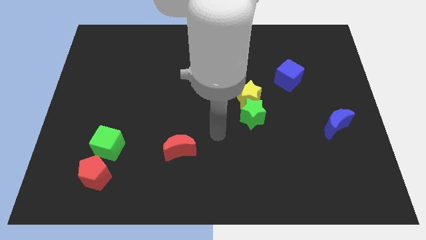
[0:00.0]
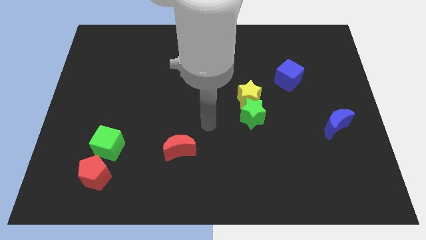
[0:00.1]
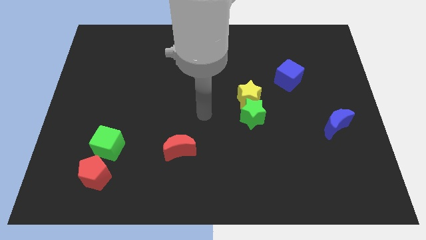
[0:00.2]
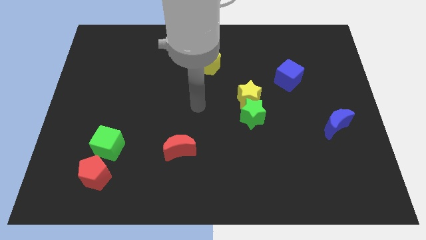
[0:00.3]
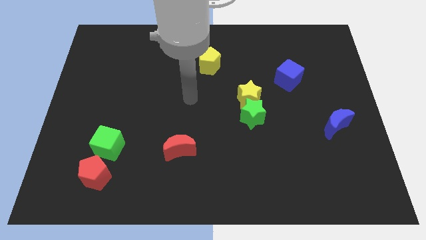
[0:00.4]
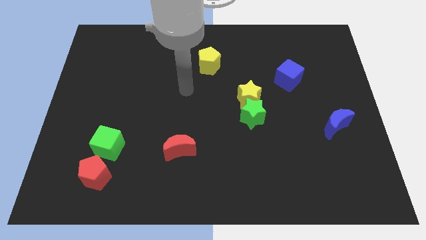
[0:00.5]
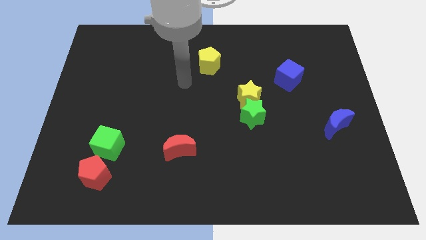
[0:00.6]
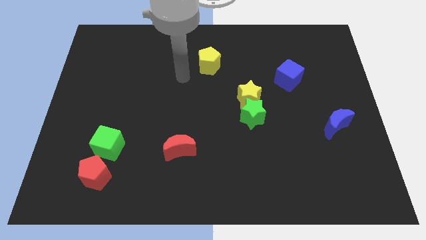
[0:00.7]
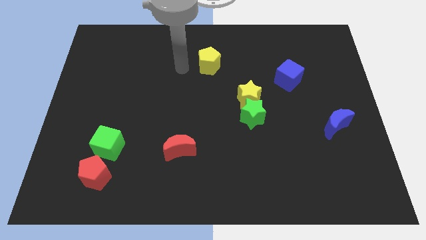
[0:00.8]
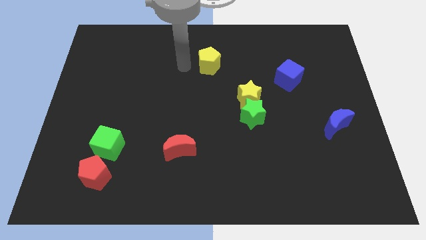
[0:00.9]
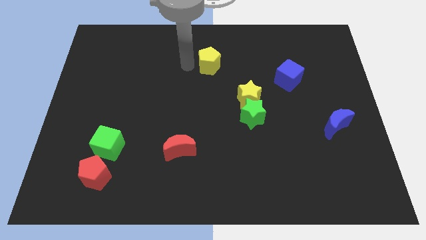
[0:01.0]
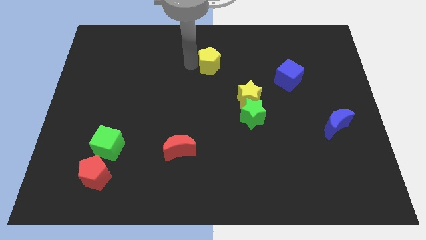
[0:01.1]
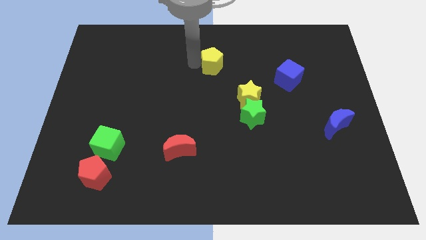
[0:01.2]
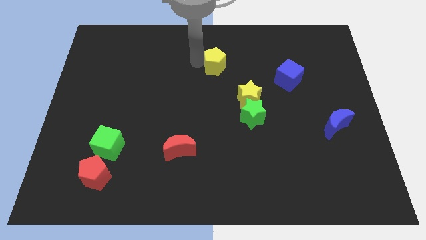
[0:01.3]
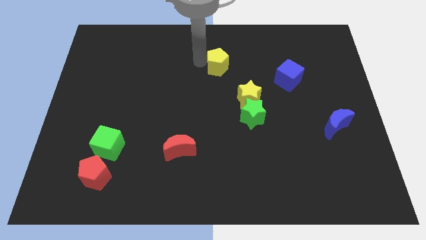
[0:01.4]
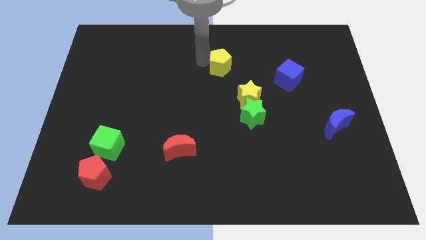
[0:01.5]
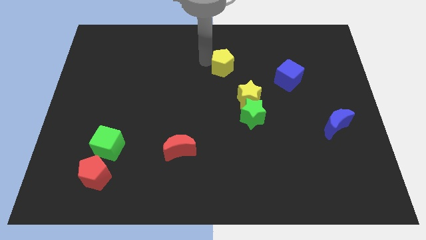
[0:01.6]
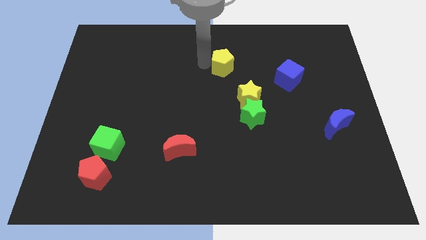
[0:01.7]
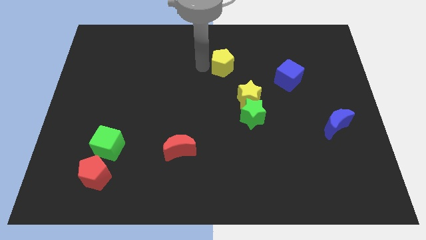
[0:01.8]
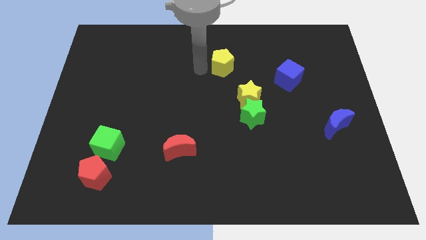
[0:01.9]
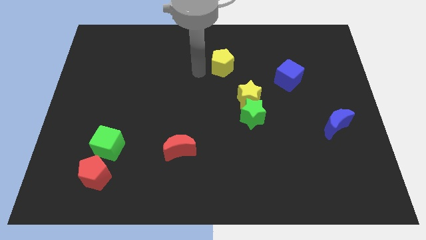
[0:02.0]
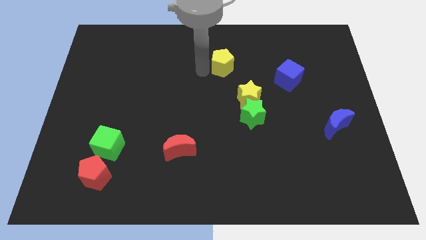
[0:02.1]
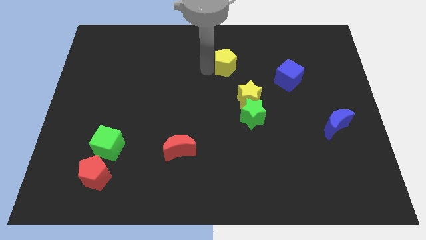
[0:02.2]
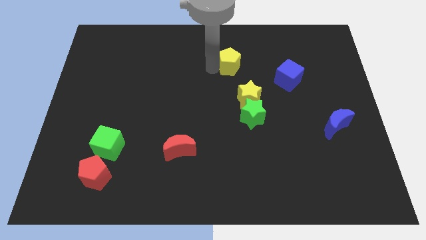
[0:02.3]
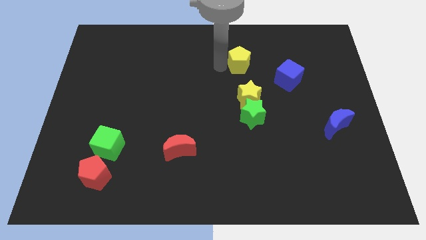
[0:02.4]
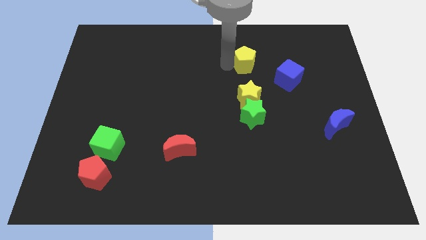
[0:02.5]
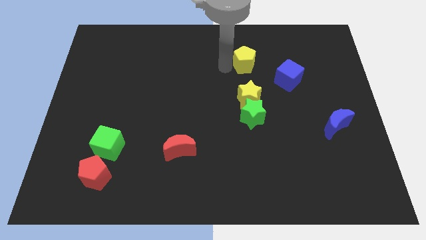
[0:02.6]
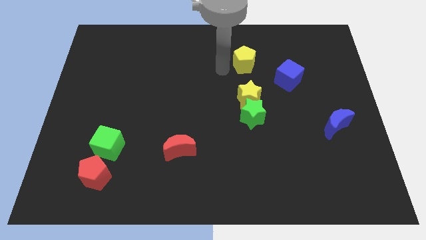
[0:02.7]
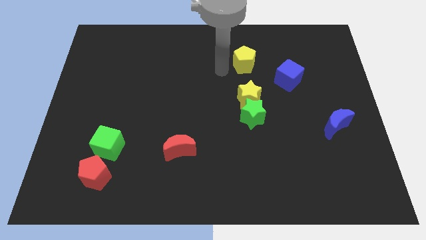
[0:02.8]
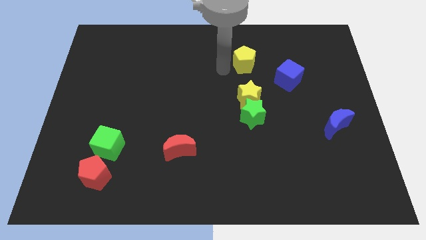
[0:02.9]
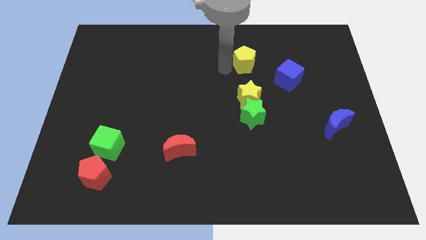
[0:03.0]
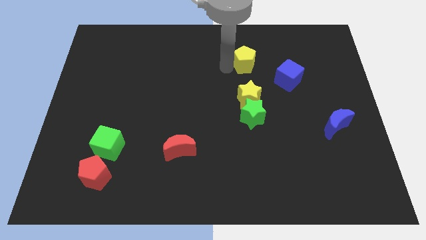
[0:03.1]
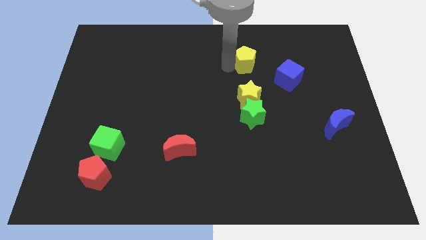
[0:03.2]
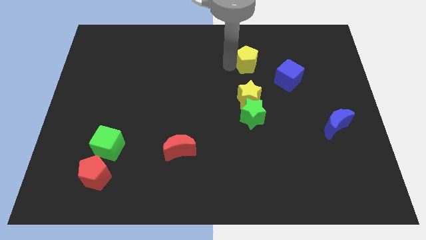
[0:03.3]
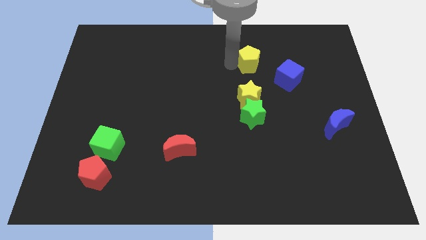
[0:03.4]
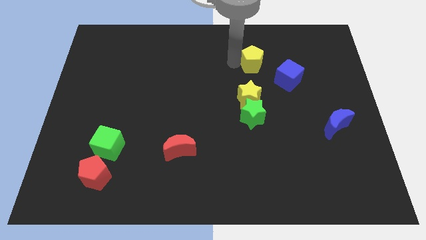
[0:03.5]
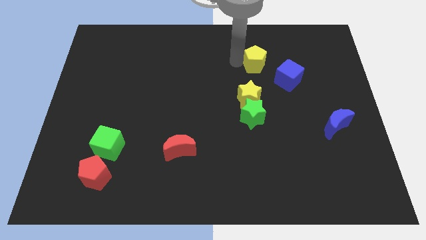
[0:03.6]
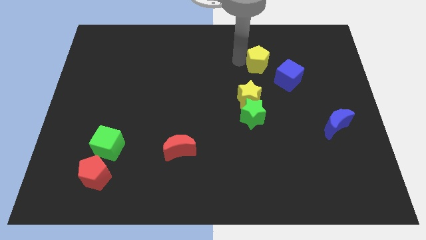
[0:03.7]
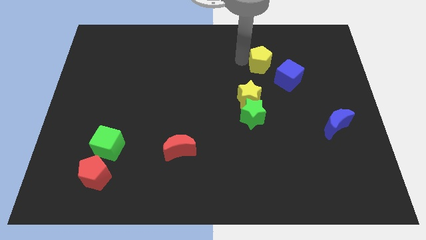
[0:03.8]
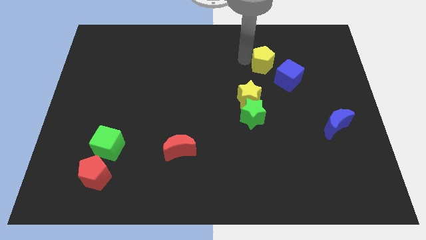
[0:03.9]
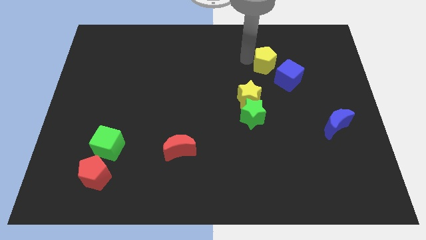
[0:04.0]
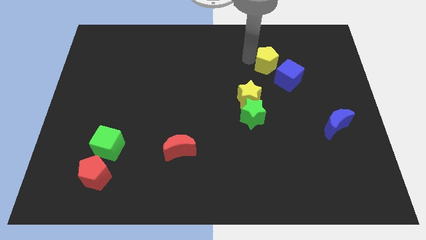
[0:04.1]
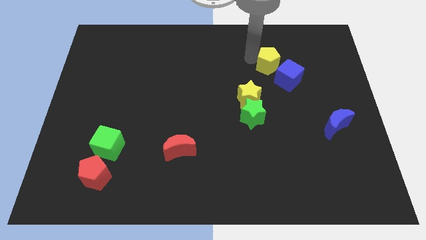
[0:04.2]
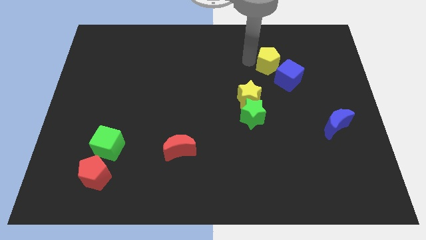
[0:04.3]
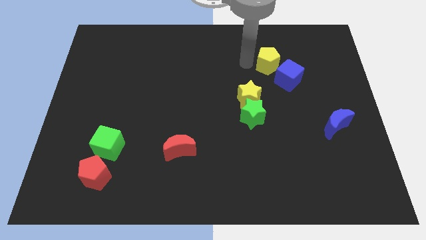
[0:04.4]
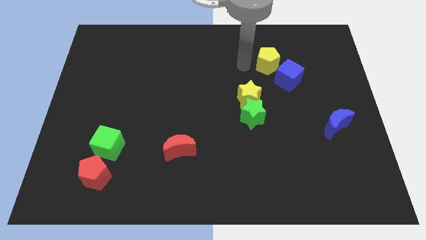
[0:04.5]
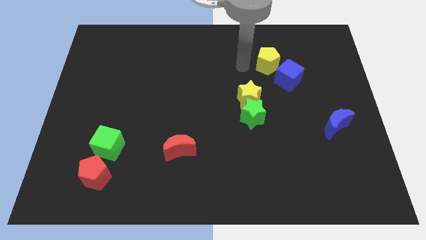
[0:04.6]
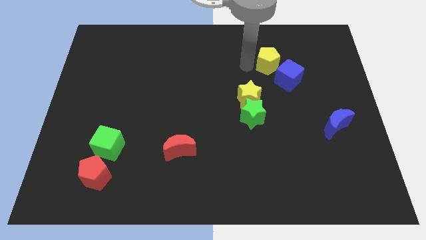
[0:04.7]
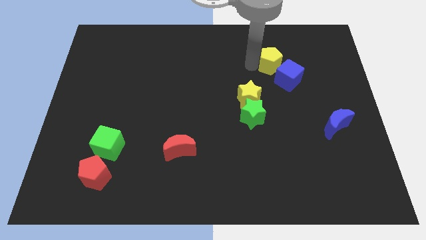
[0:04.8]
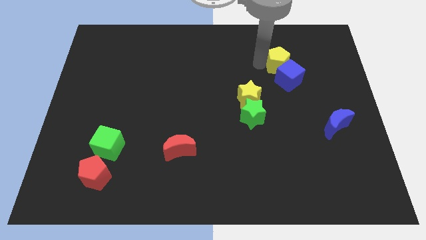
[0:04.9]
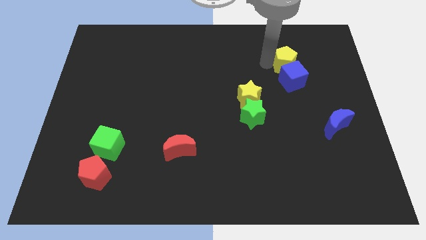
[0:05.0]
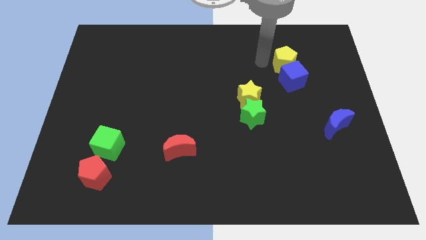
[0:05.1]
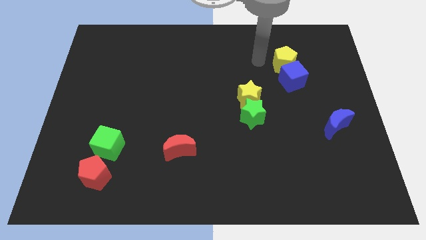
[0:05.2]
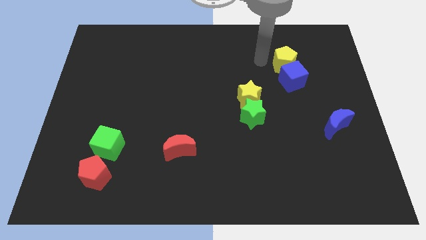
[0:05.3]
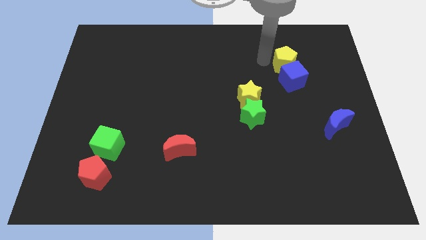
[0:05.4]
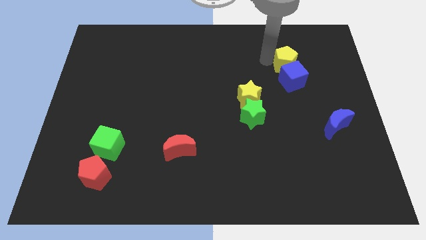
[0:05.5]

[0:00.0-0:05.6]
slide the yellow pentagon to the top right of the blue cube

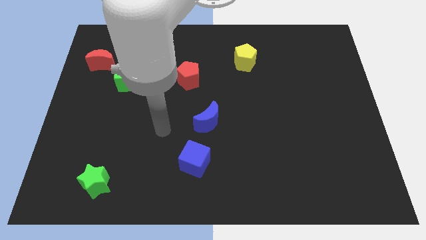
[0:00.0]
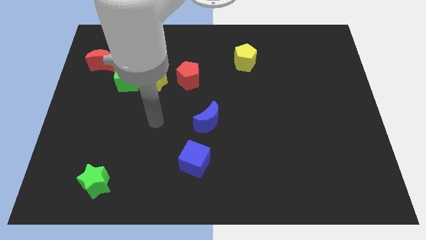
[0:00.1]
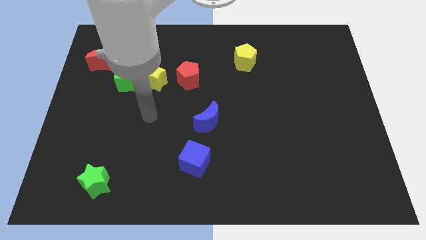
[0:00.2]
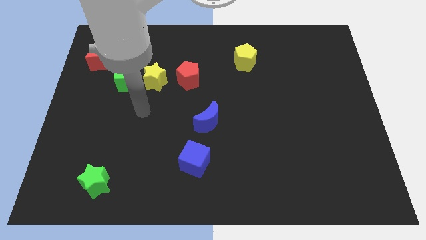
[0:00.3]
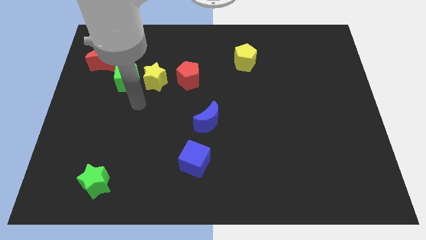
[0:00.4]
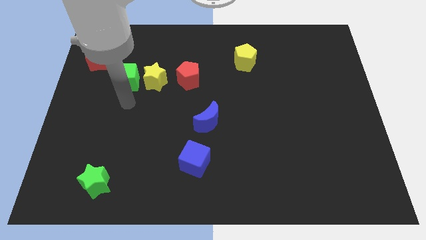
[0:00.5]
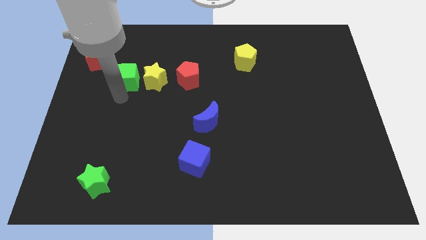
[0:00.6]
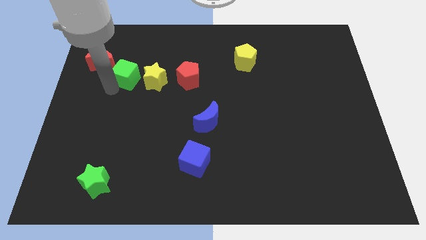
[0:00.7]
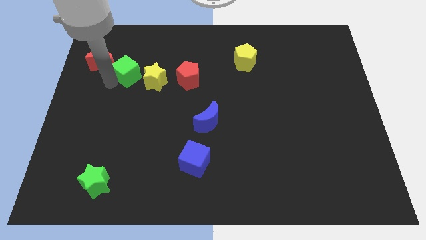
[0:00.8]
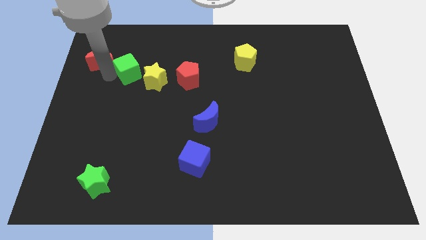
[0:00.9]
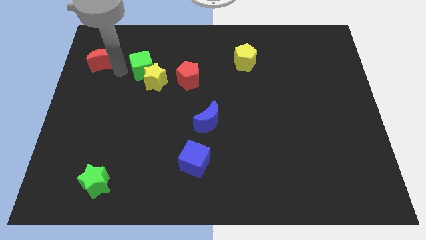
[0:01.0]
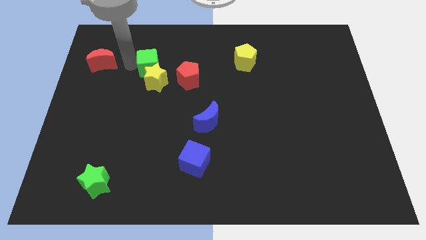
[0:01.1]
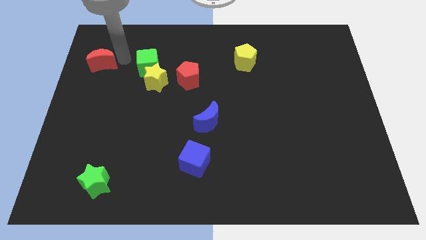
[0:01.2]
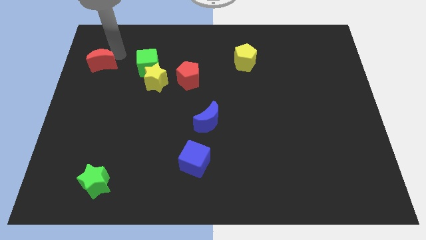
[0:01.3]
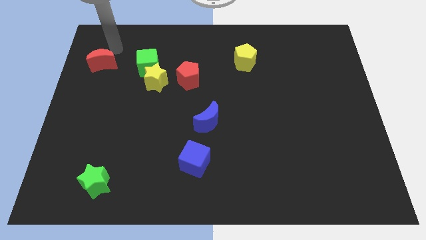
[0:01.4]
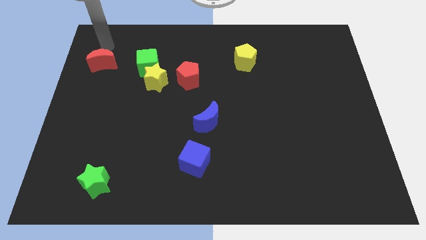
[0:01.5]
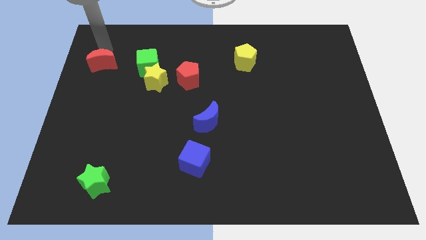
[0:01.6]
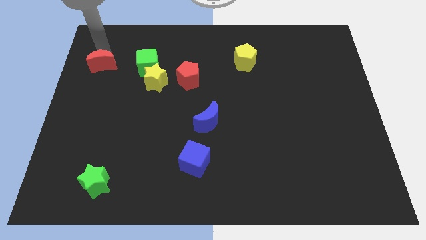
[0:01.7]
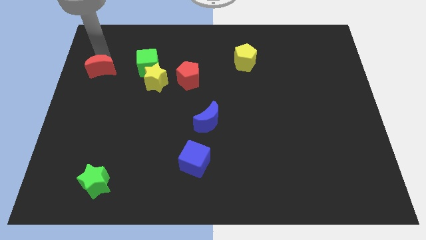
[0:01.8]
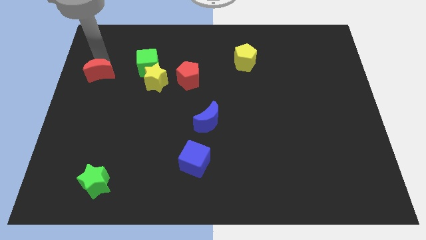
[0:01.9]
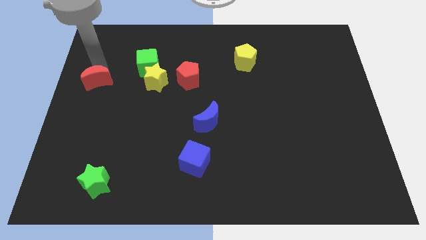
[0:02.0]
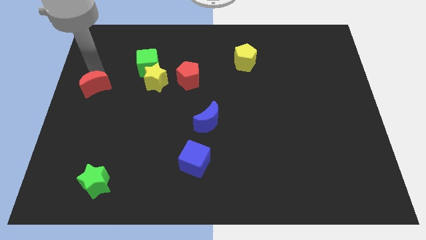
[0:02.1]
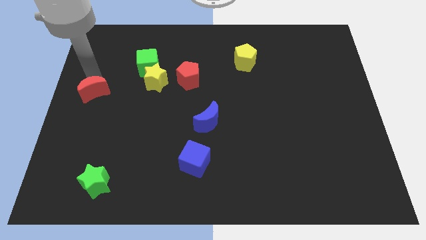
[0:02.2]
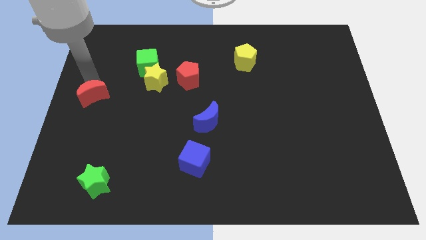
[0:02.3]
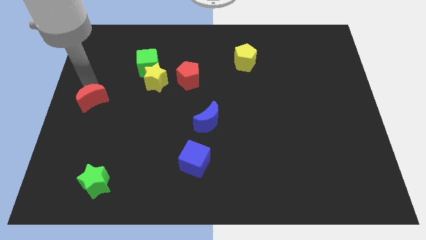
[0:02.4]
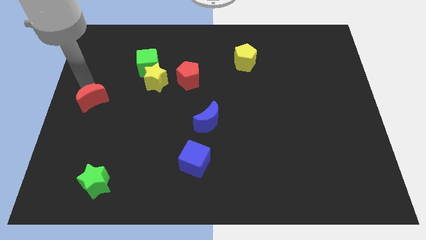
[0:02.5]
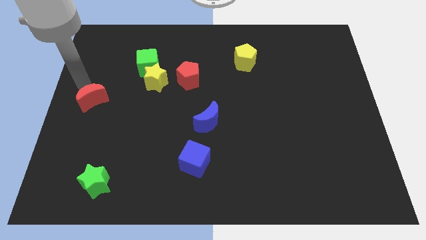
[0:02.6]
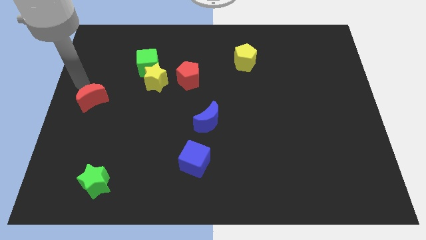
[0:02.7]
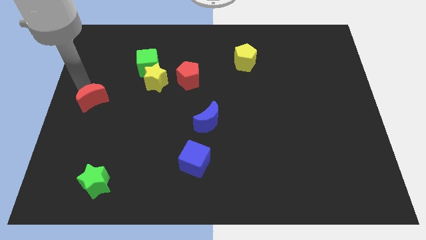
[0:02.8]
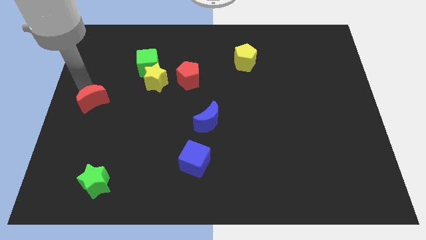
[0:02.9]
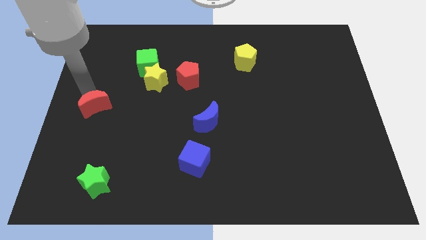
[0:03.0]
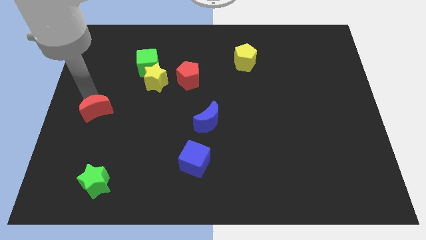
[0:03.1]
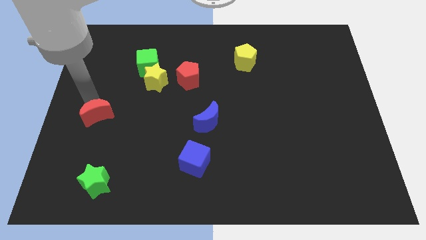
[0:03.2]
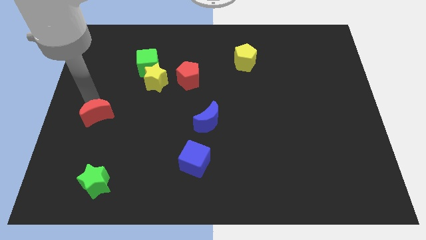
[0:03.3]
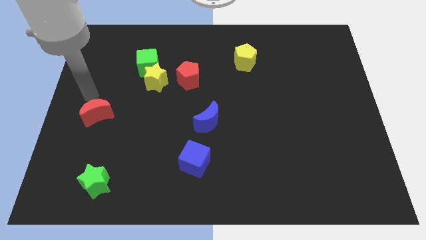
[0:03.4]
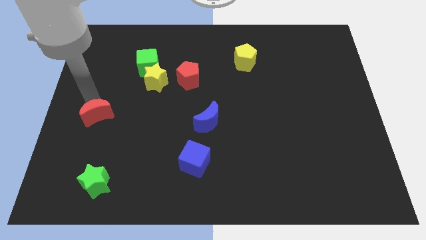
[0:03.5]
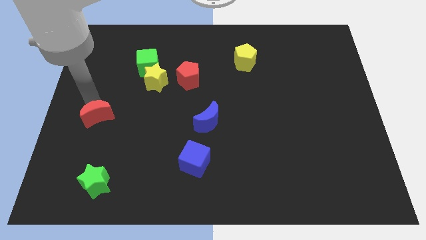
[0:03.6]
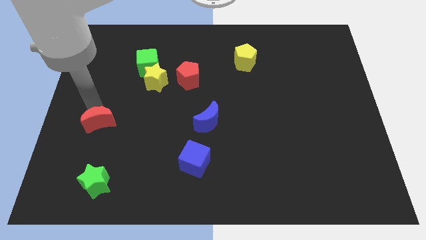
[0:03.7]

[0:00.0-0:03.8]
slide the red moon above the green star
